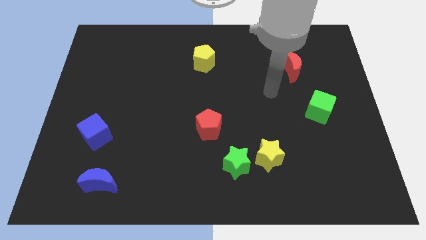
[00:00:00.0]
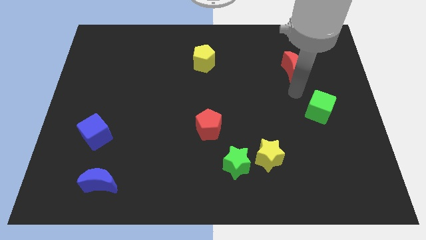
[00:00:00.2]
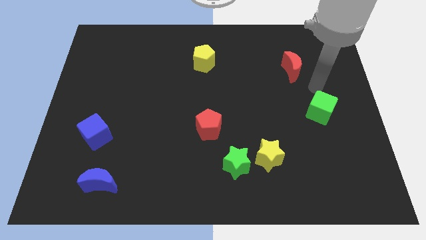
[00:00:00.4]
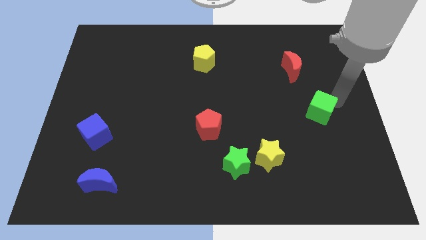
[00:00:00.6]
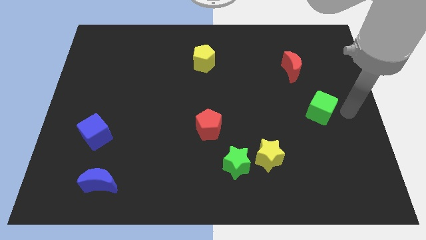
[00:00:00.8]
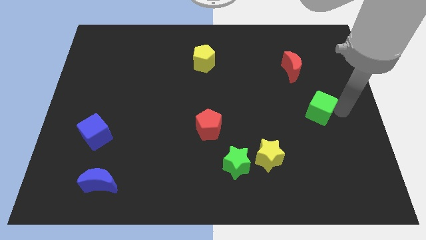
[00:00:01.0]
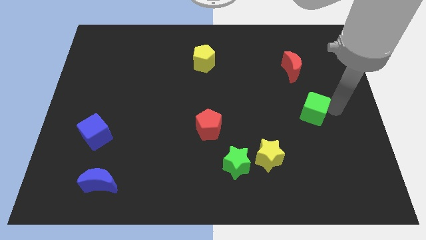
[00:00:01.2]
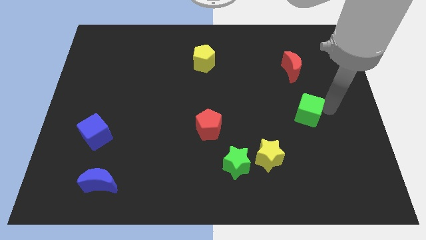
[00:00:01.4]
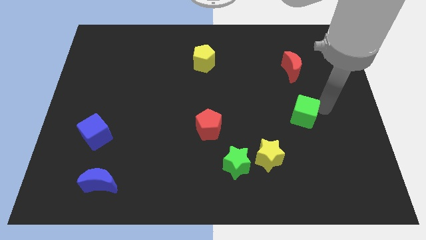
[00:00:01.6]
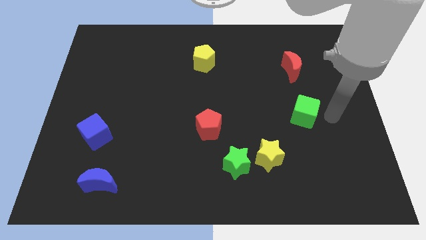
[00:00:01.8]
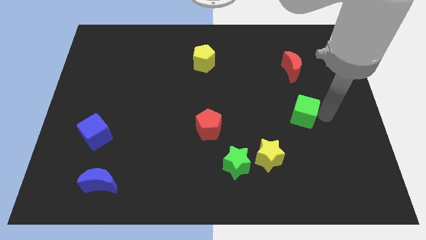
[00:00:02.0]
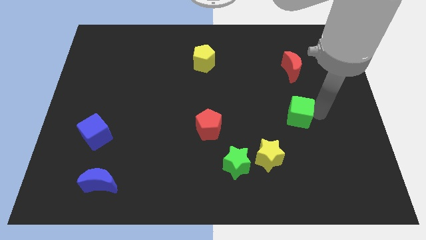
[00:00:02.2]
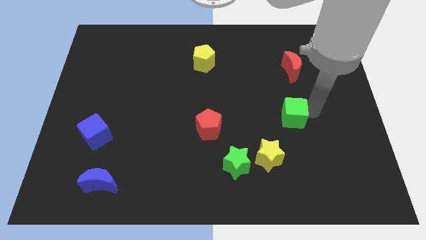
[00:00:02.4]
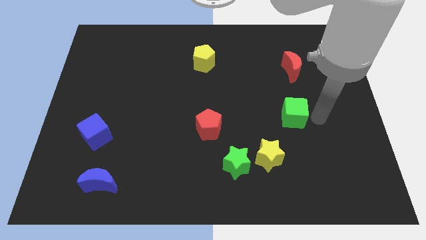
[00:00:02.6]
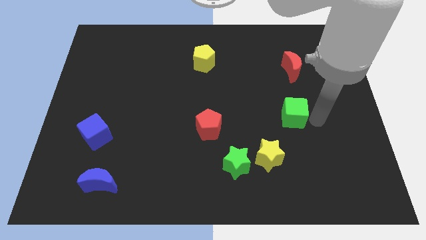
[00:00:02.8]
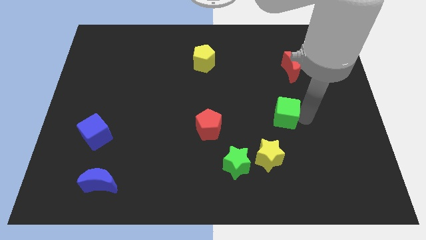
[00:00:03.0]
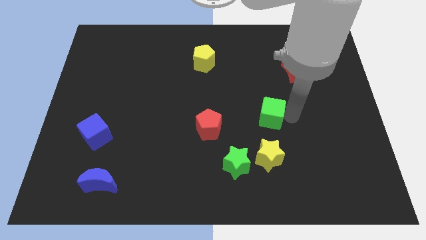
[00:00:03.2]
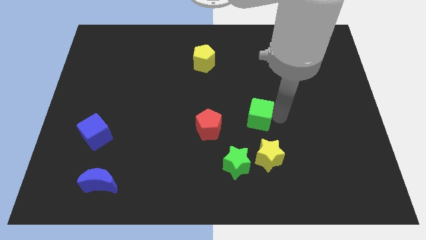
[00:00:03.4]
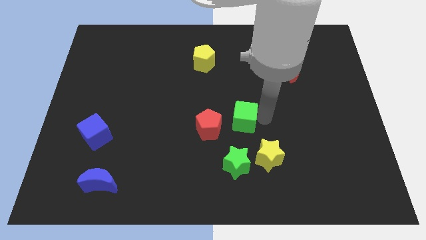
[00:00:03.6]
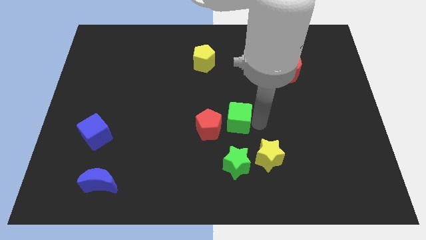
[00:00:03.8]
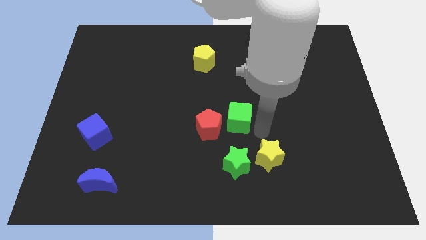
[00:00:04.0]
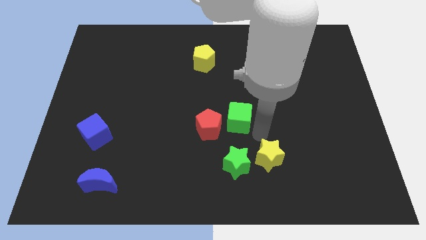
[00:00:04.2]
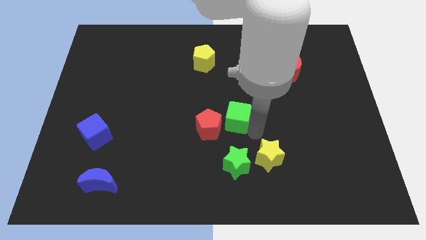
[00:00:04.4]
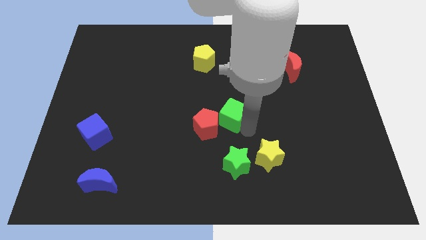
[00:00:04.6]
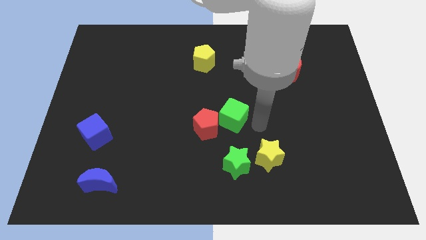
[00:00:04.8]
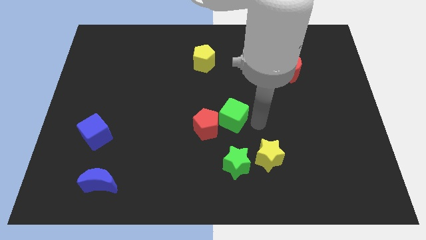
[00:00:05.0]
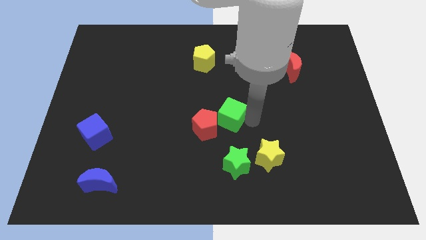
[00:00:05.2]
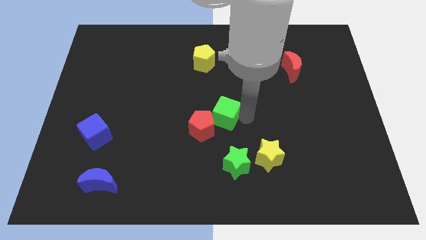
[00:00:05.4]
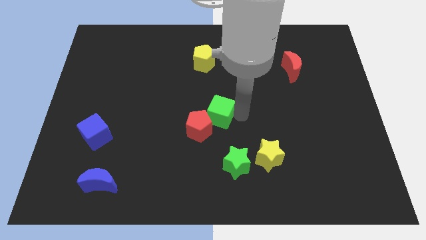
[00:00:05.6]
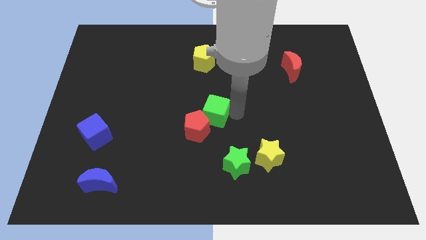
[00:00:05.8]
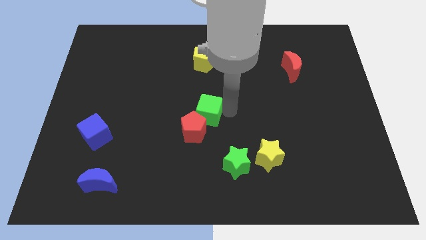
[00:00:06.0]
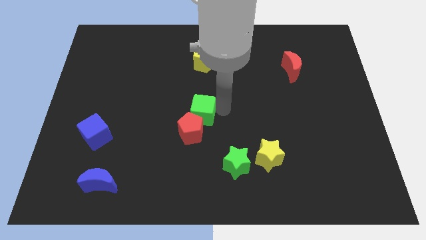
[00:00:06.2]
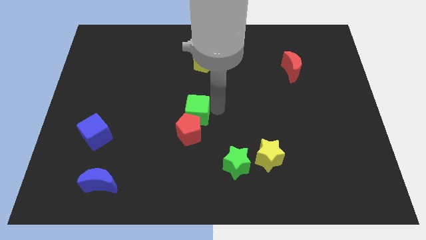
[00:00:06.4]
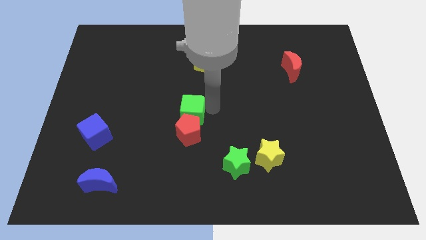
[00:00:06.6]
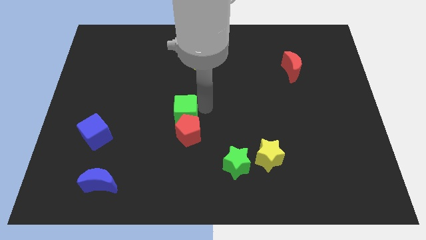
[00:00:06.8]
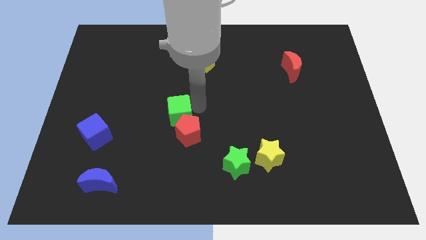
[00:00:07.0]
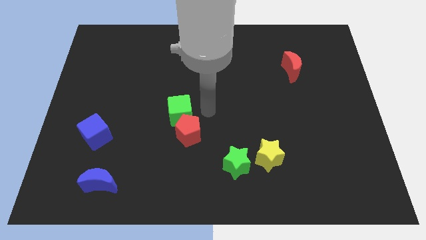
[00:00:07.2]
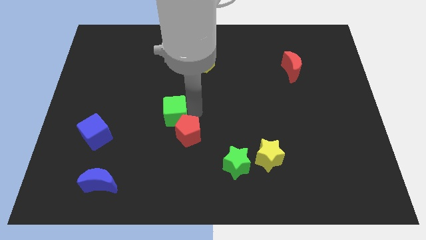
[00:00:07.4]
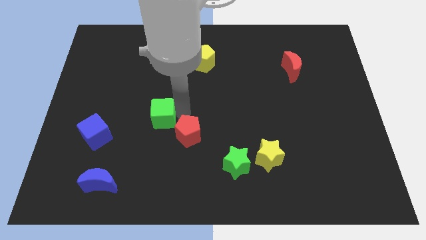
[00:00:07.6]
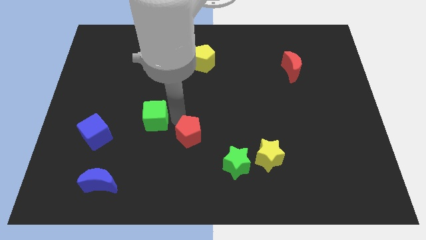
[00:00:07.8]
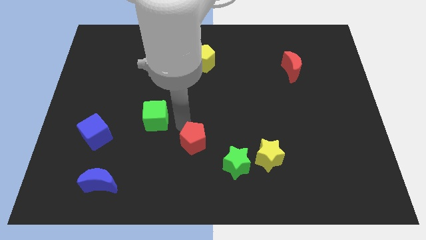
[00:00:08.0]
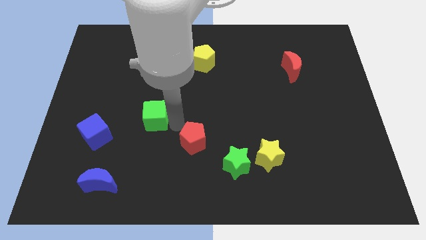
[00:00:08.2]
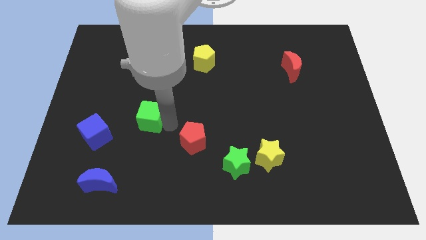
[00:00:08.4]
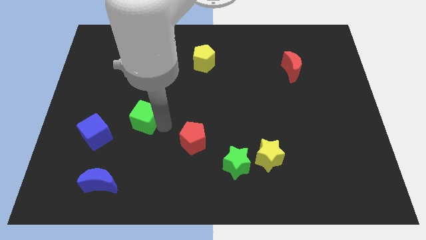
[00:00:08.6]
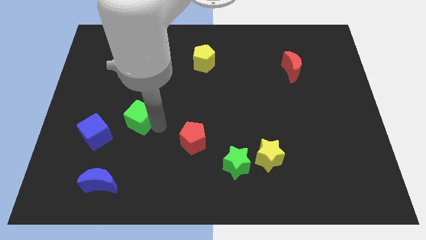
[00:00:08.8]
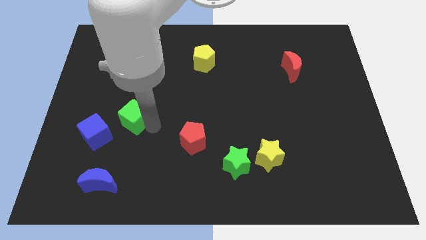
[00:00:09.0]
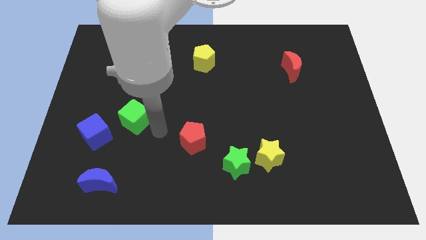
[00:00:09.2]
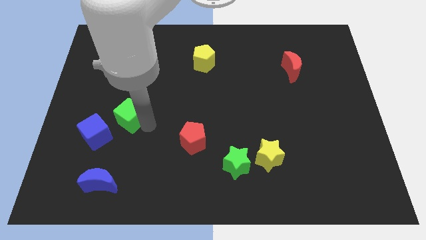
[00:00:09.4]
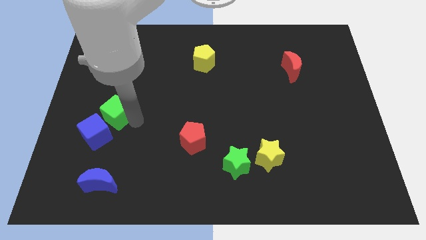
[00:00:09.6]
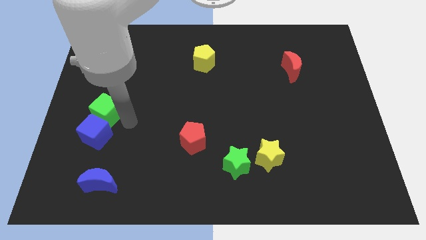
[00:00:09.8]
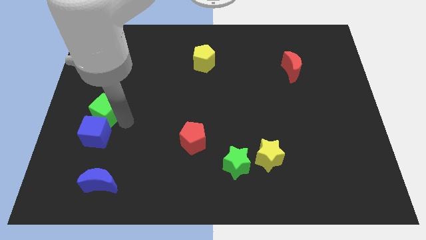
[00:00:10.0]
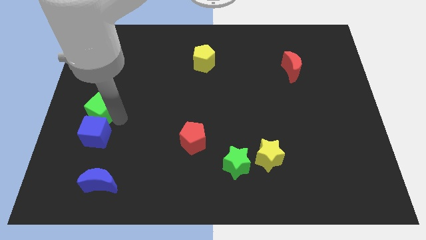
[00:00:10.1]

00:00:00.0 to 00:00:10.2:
put the green cube to the center left

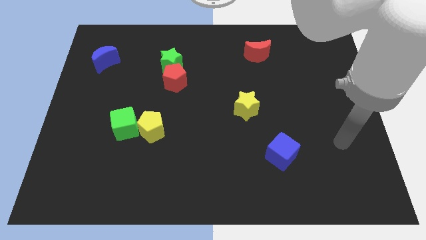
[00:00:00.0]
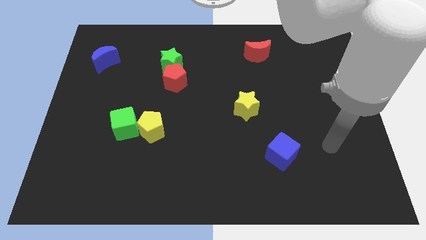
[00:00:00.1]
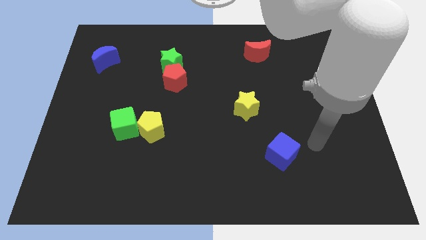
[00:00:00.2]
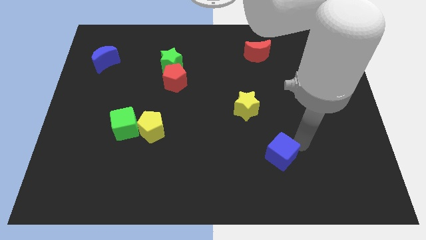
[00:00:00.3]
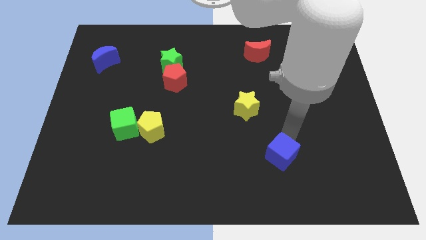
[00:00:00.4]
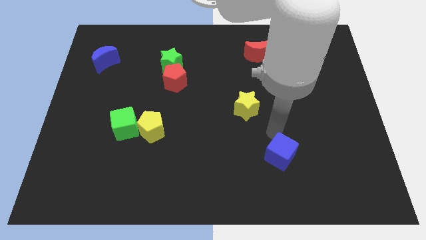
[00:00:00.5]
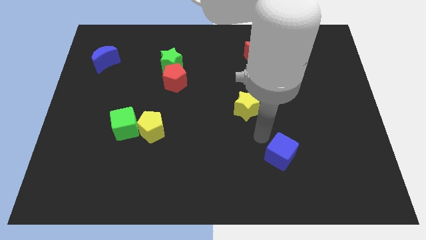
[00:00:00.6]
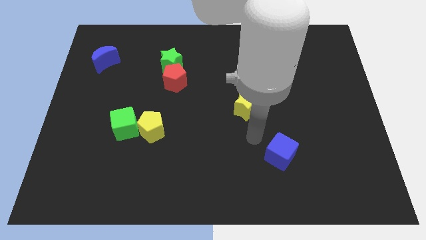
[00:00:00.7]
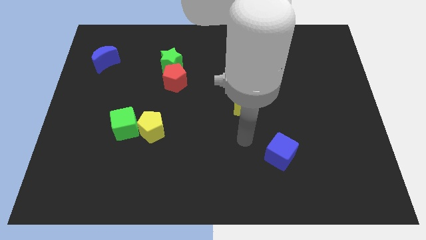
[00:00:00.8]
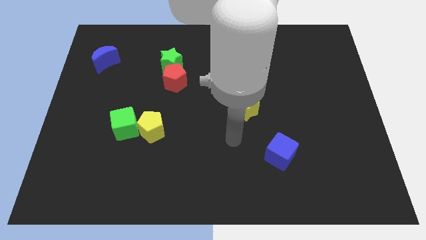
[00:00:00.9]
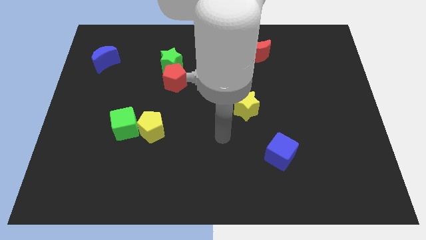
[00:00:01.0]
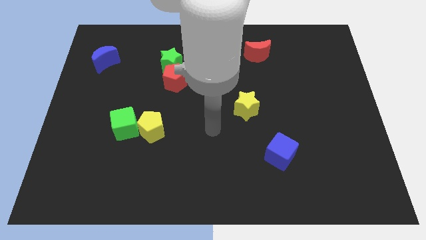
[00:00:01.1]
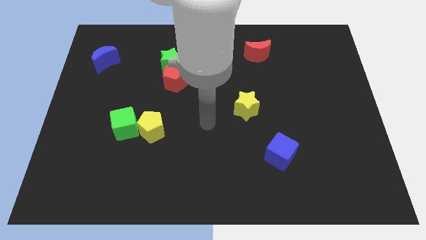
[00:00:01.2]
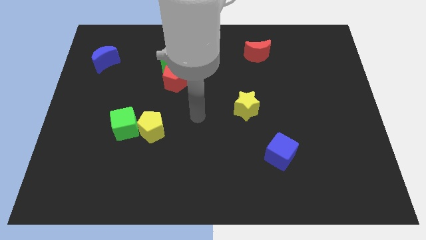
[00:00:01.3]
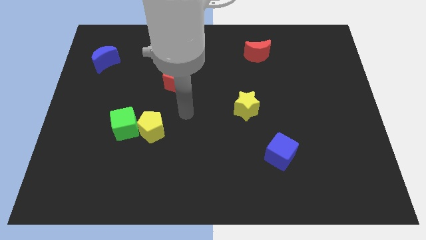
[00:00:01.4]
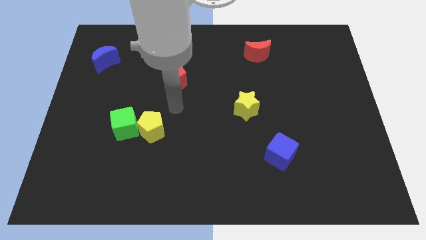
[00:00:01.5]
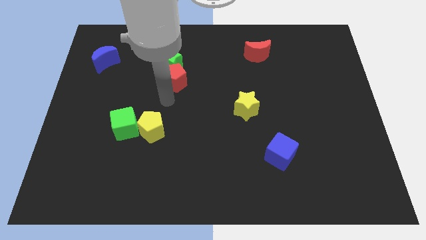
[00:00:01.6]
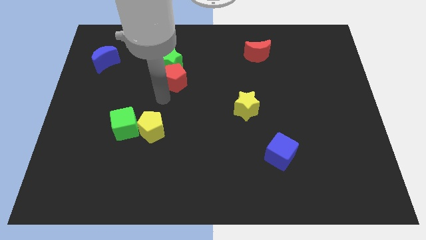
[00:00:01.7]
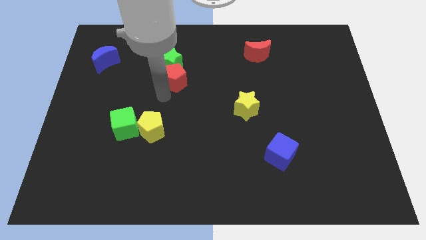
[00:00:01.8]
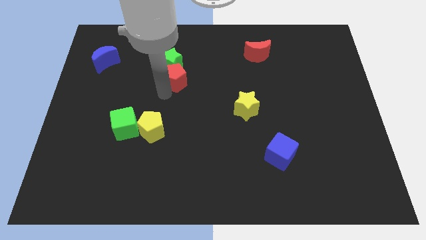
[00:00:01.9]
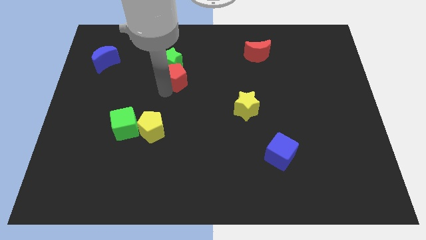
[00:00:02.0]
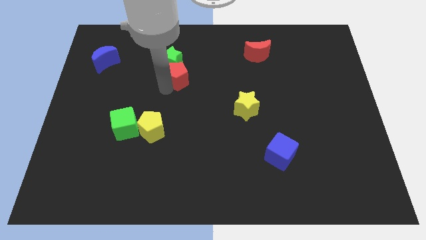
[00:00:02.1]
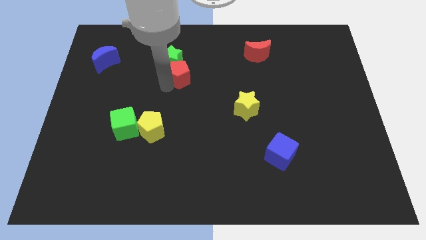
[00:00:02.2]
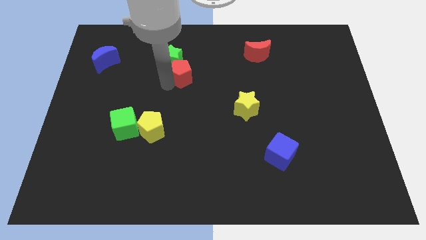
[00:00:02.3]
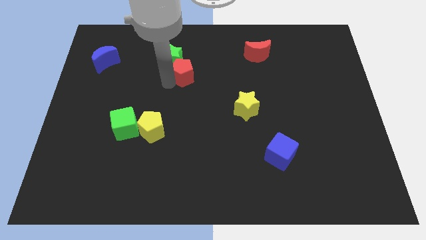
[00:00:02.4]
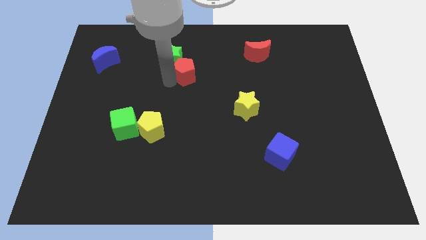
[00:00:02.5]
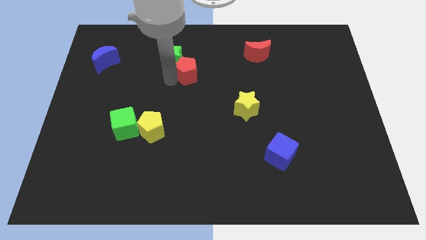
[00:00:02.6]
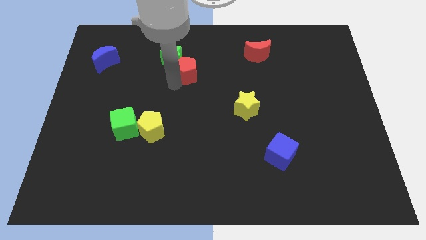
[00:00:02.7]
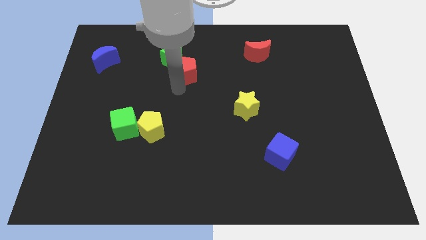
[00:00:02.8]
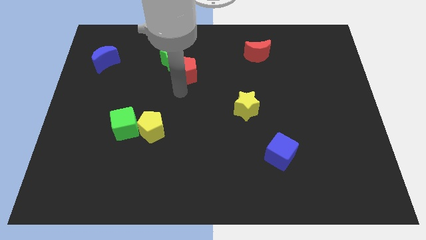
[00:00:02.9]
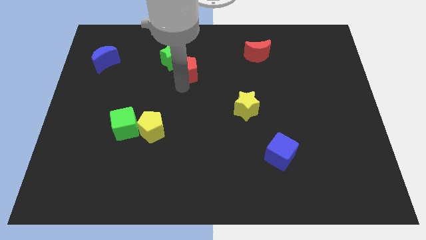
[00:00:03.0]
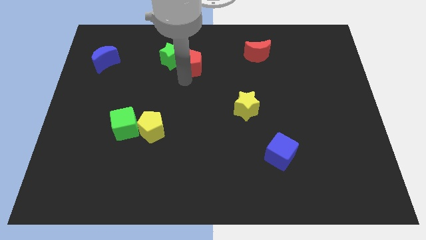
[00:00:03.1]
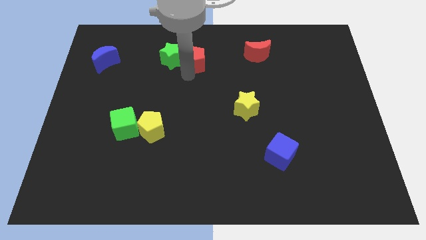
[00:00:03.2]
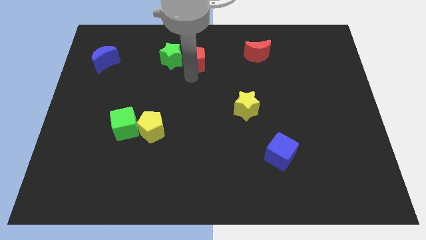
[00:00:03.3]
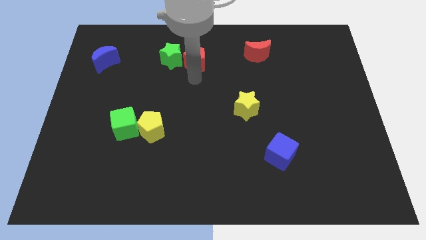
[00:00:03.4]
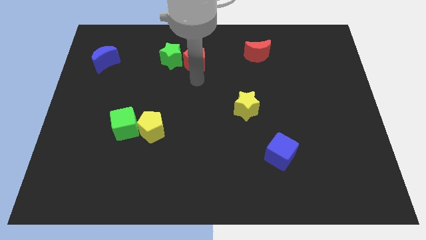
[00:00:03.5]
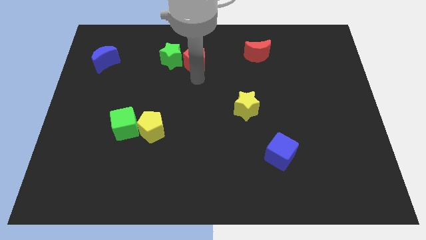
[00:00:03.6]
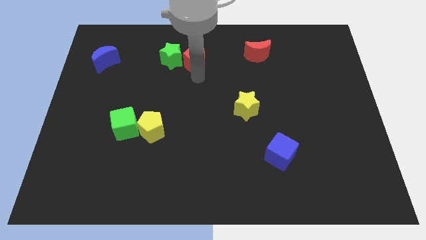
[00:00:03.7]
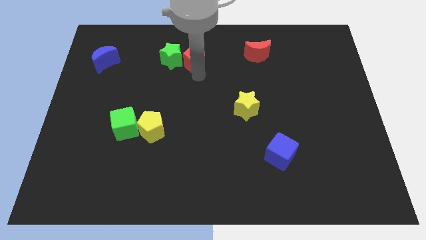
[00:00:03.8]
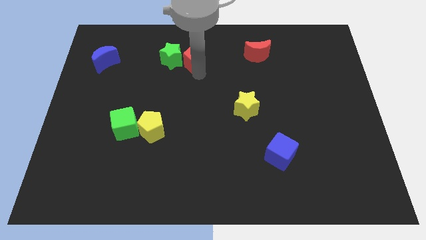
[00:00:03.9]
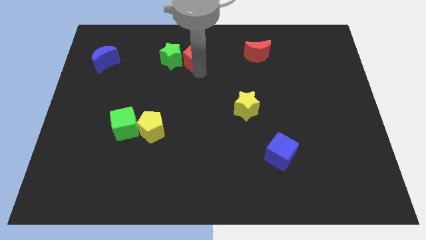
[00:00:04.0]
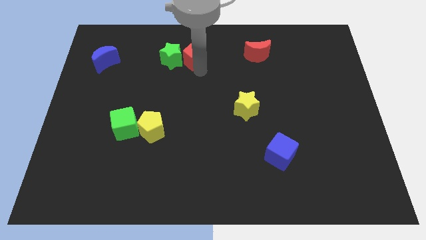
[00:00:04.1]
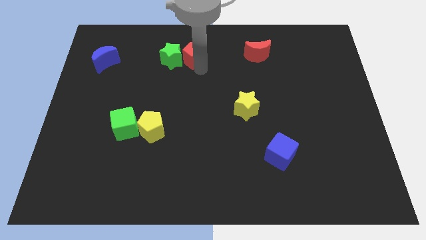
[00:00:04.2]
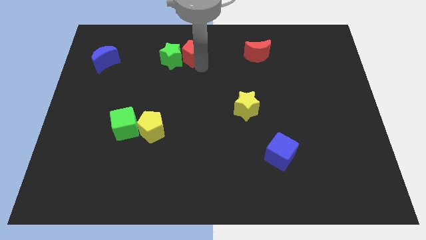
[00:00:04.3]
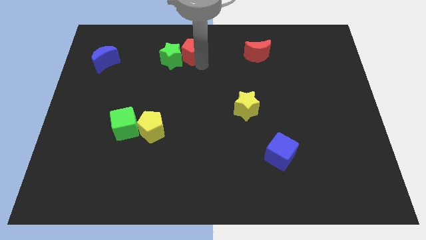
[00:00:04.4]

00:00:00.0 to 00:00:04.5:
push the red pentagon to the top side
